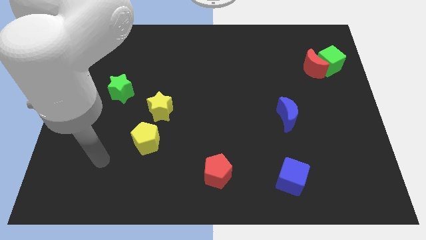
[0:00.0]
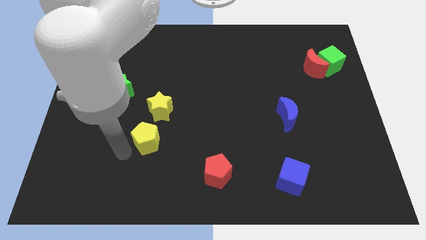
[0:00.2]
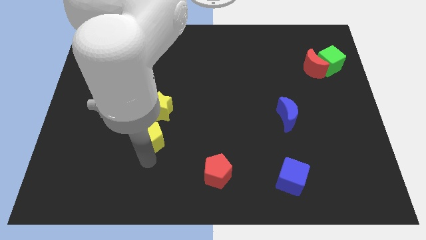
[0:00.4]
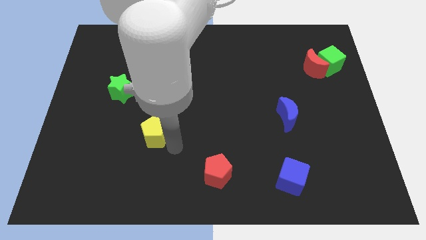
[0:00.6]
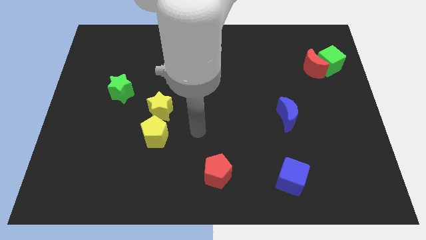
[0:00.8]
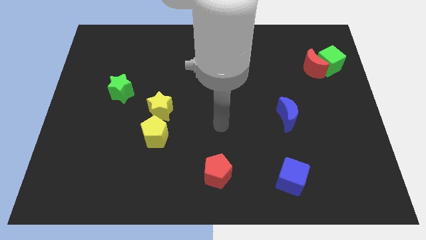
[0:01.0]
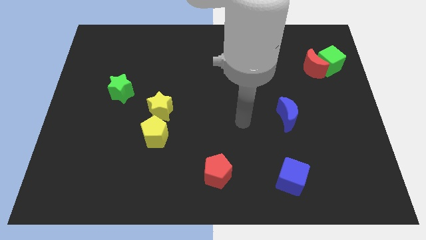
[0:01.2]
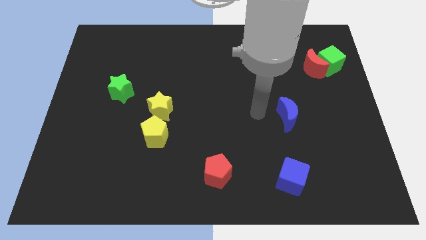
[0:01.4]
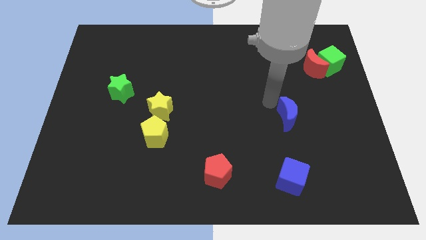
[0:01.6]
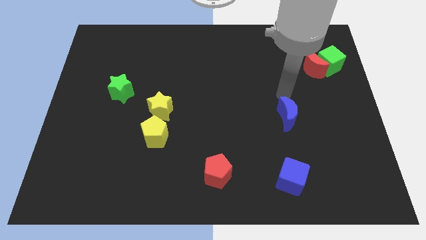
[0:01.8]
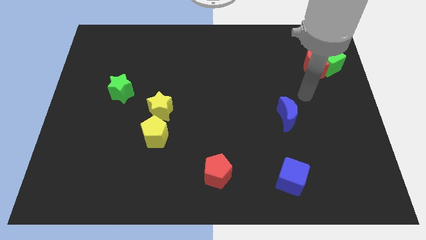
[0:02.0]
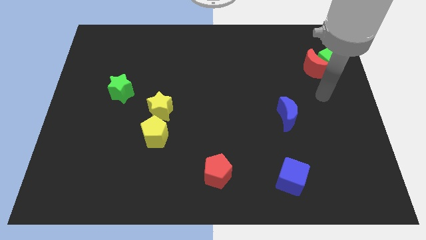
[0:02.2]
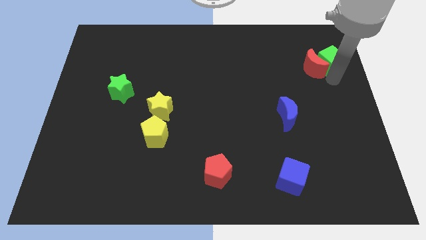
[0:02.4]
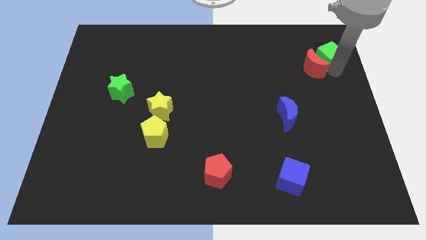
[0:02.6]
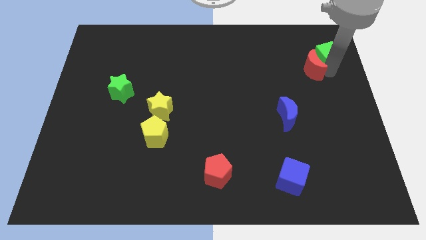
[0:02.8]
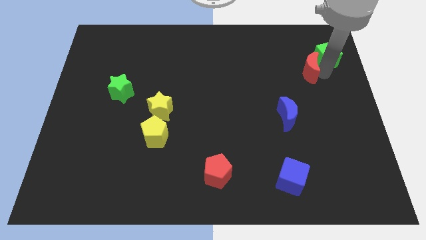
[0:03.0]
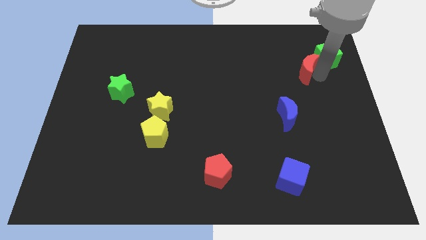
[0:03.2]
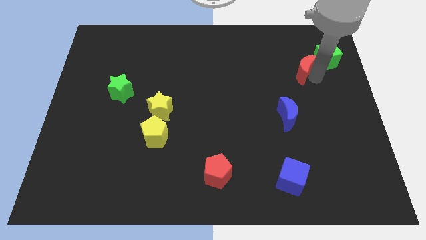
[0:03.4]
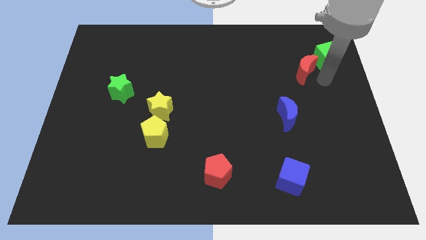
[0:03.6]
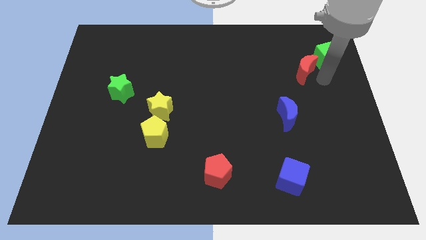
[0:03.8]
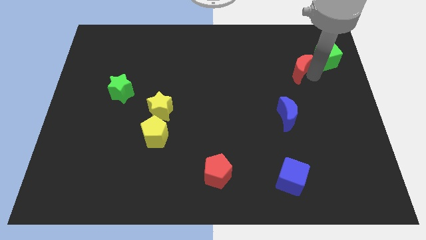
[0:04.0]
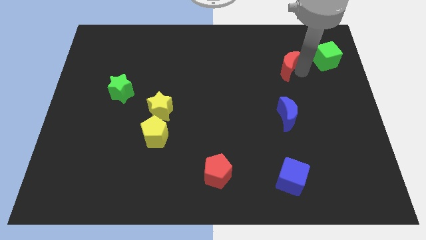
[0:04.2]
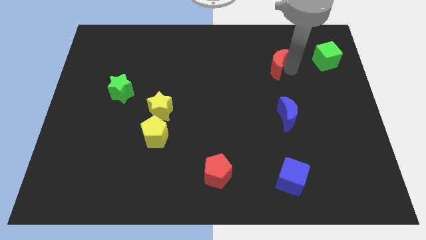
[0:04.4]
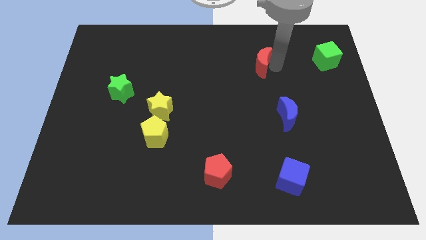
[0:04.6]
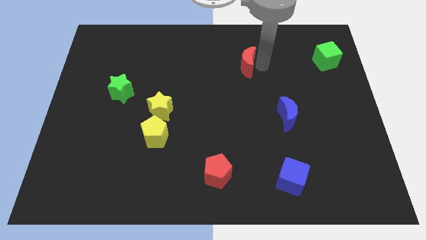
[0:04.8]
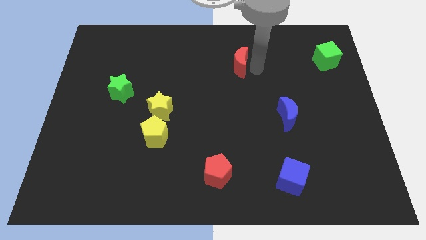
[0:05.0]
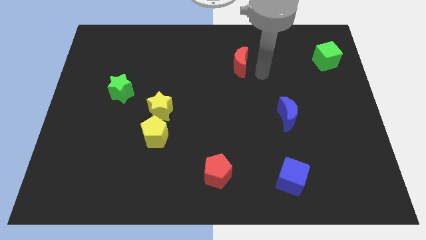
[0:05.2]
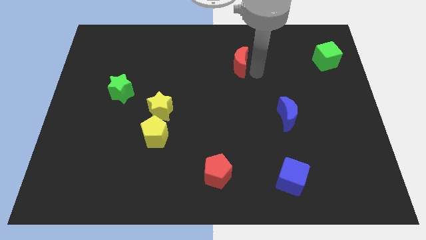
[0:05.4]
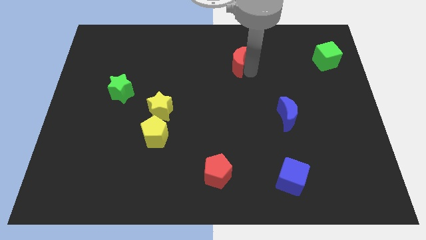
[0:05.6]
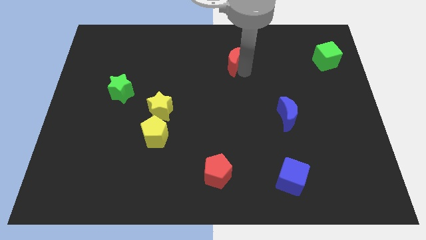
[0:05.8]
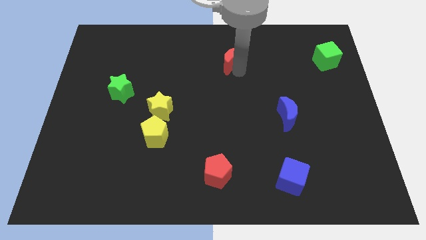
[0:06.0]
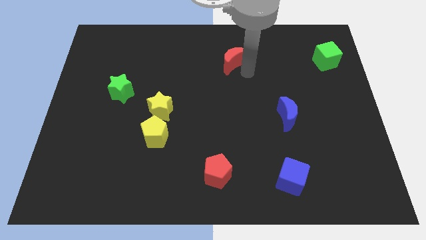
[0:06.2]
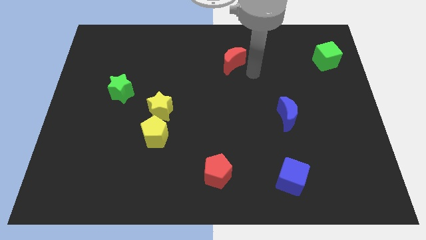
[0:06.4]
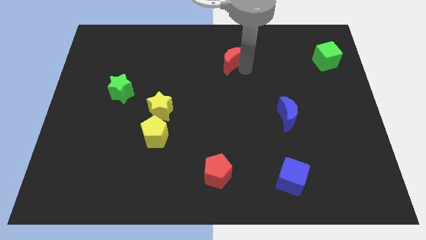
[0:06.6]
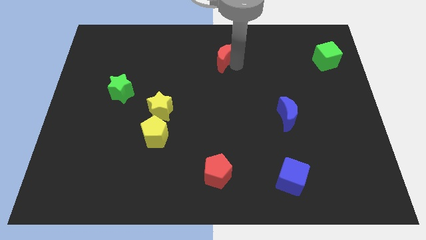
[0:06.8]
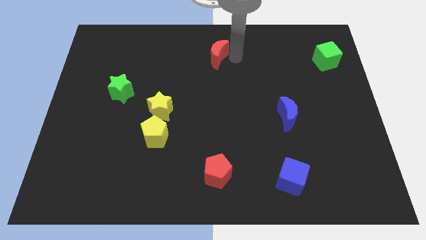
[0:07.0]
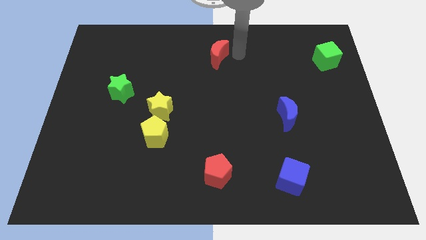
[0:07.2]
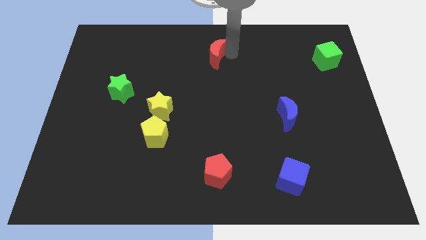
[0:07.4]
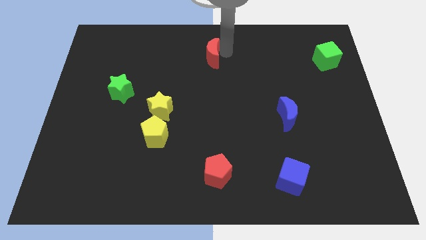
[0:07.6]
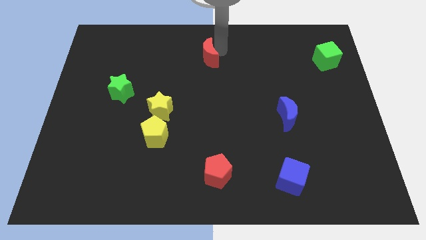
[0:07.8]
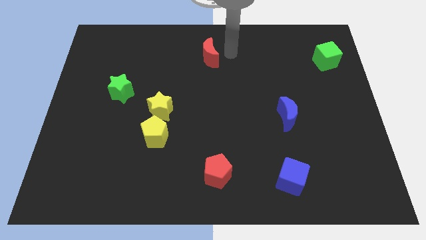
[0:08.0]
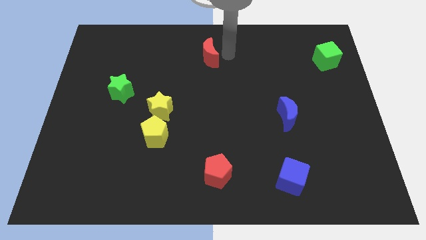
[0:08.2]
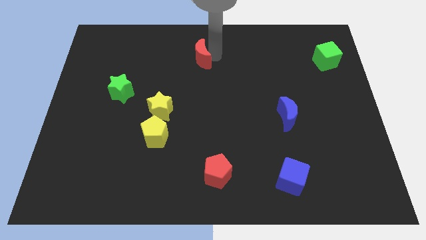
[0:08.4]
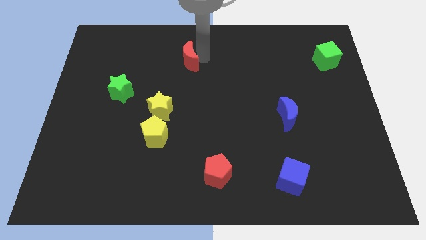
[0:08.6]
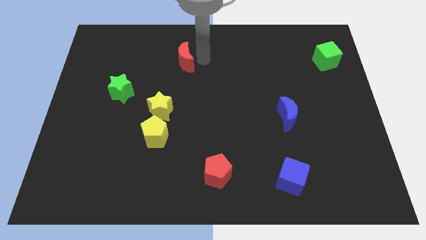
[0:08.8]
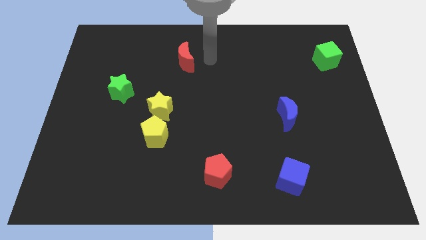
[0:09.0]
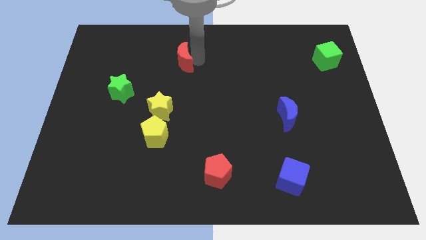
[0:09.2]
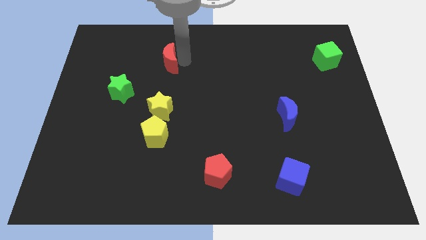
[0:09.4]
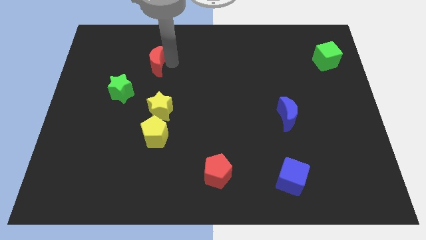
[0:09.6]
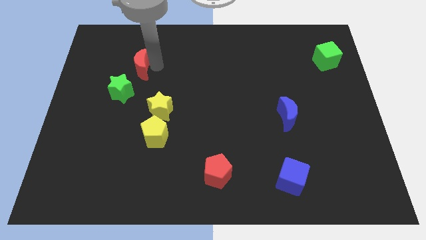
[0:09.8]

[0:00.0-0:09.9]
put the red moon to the top side of the green star
